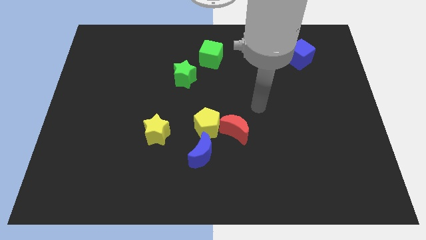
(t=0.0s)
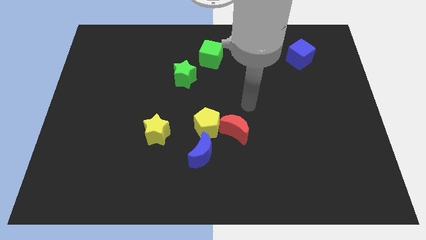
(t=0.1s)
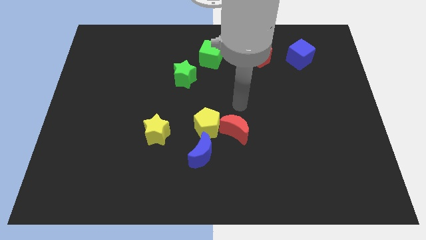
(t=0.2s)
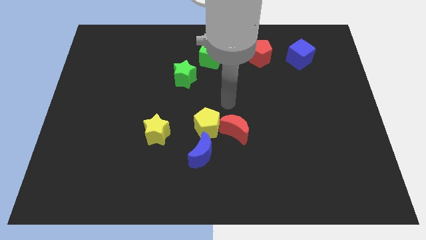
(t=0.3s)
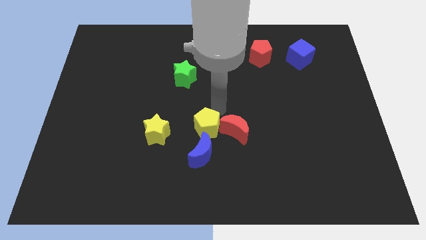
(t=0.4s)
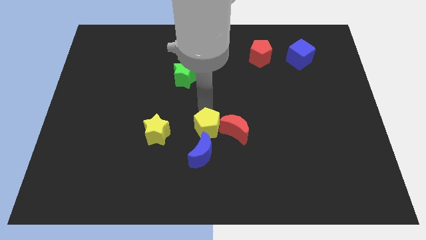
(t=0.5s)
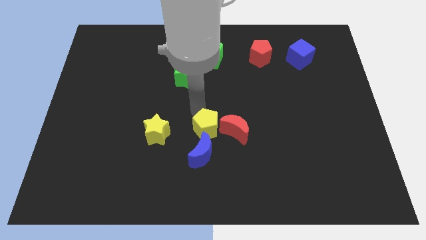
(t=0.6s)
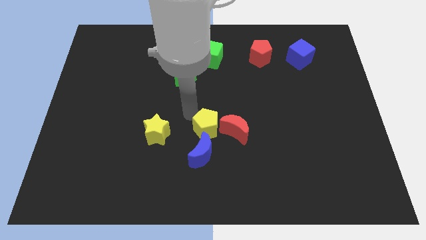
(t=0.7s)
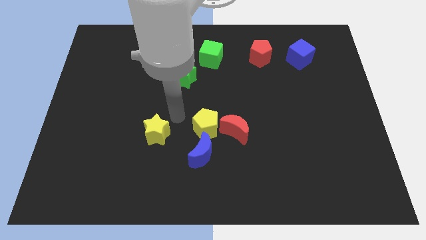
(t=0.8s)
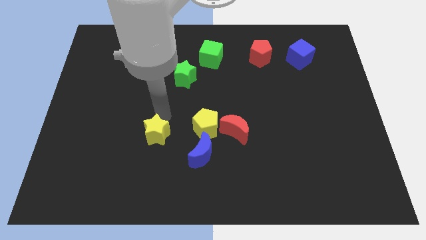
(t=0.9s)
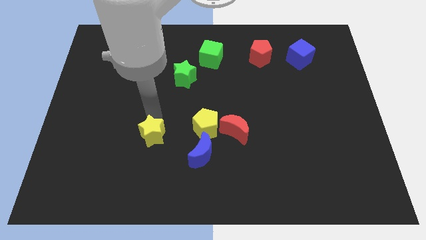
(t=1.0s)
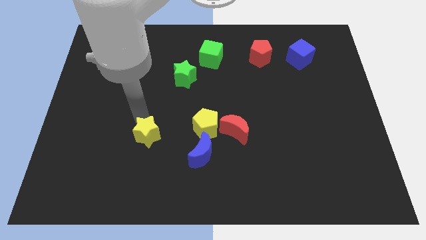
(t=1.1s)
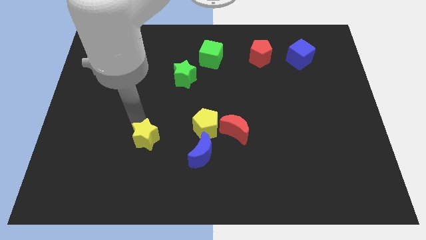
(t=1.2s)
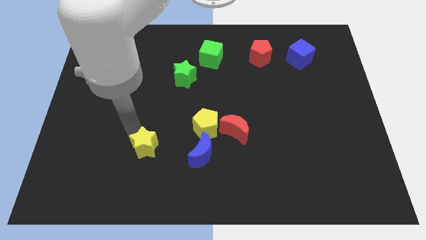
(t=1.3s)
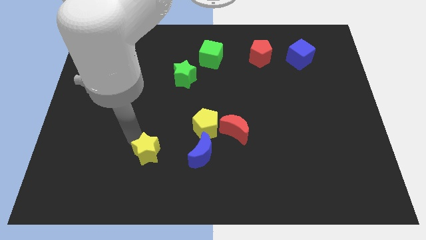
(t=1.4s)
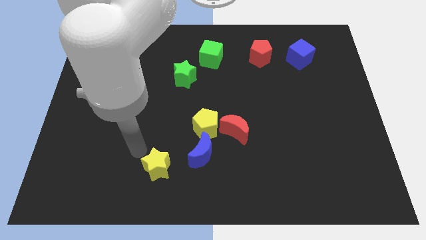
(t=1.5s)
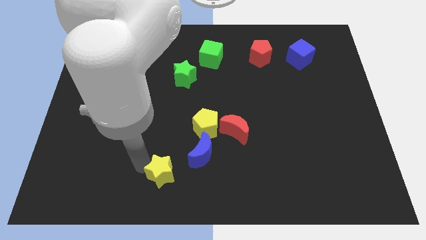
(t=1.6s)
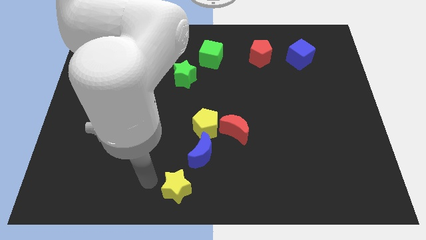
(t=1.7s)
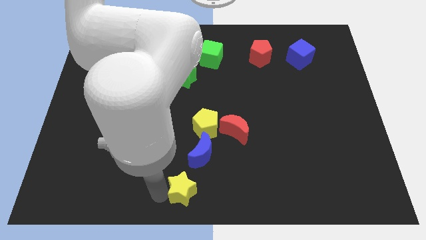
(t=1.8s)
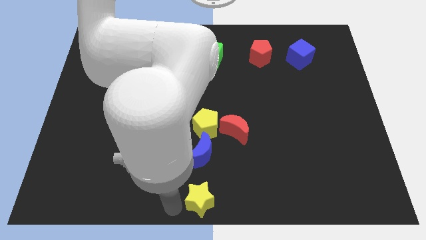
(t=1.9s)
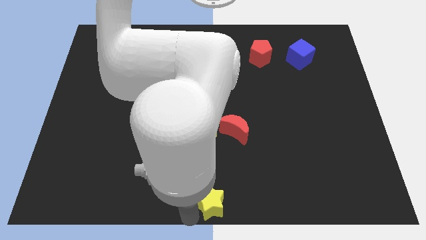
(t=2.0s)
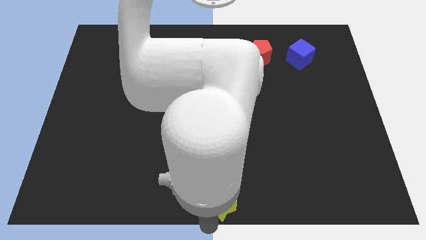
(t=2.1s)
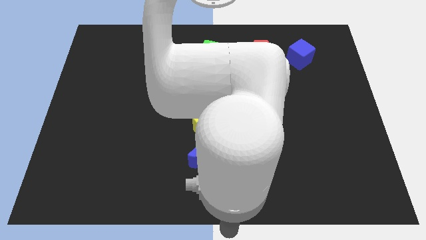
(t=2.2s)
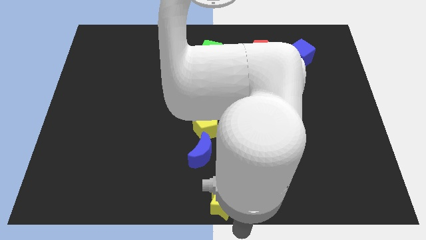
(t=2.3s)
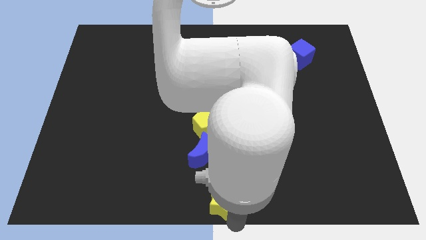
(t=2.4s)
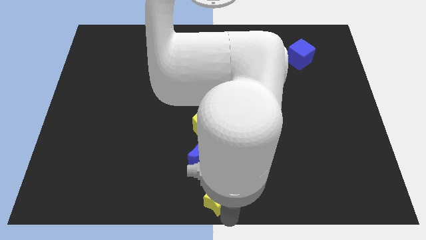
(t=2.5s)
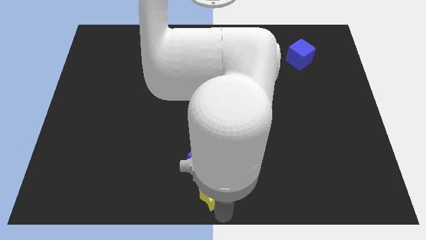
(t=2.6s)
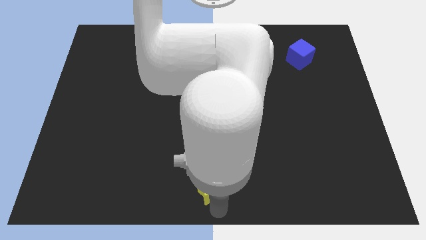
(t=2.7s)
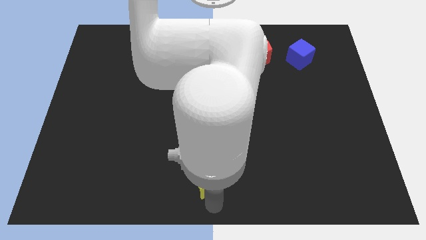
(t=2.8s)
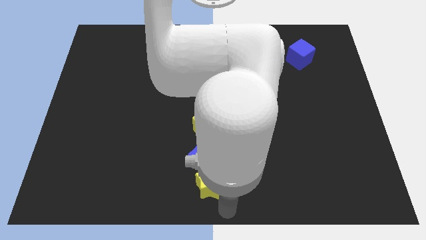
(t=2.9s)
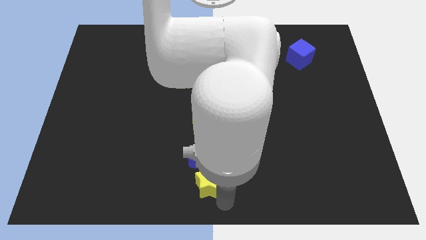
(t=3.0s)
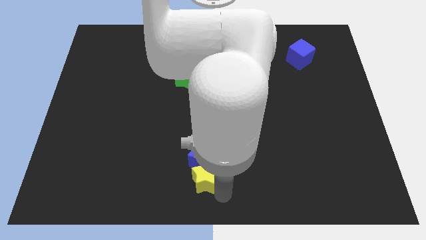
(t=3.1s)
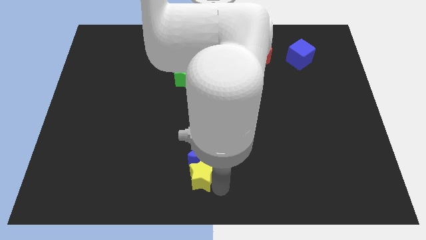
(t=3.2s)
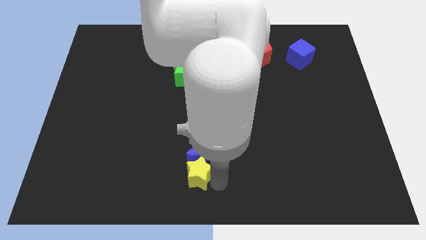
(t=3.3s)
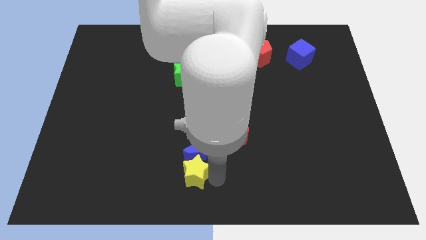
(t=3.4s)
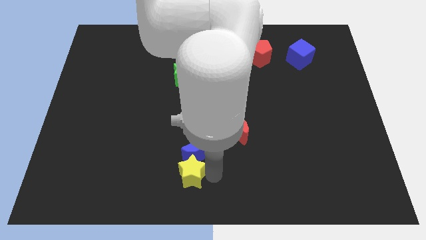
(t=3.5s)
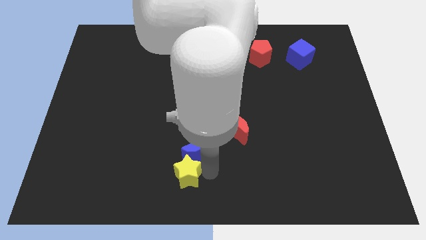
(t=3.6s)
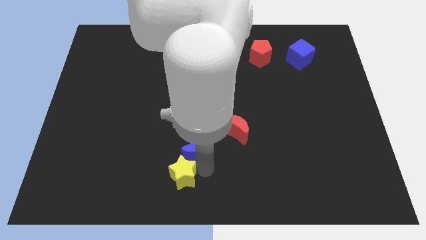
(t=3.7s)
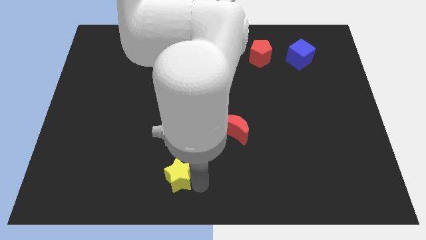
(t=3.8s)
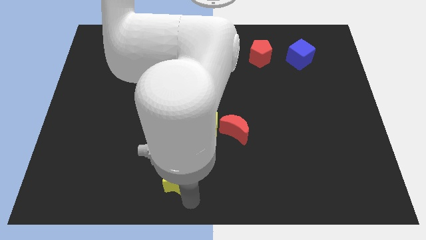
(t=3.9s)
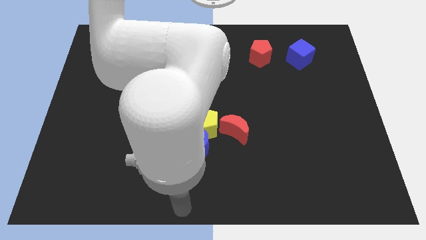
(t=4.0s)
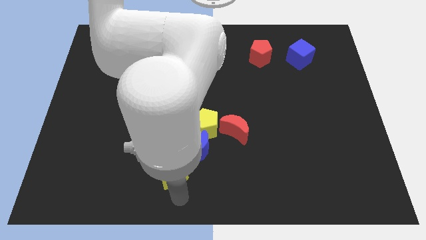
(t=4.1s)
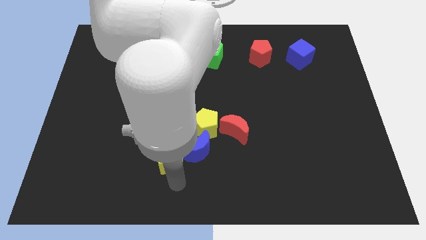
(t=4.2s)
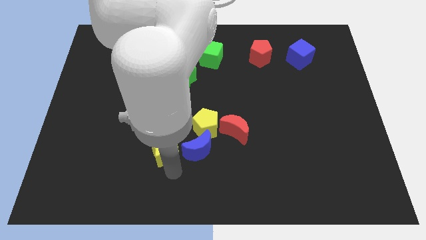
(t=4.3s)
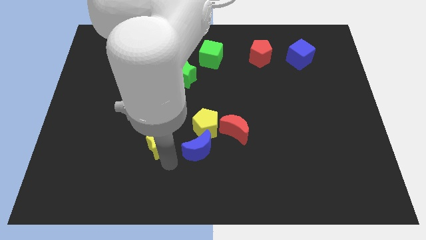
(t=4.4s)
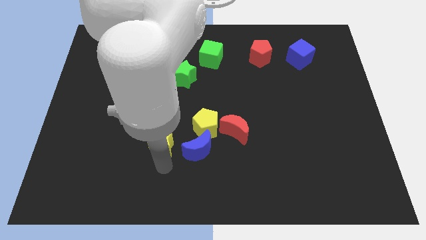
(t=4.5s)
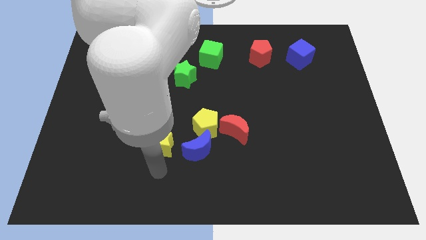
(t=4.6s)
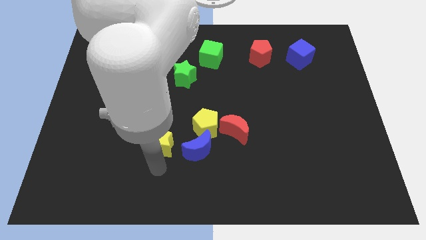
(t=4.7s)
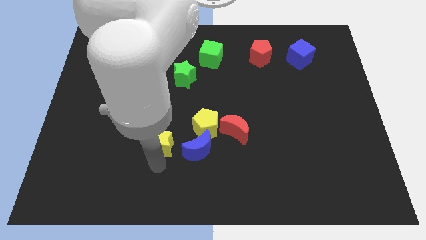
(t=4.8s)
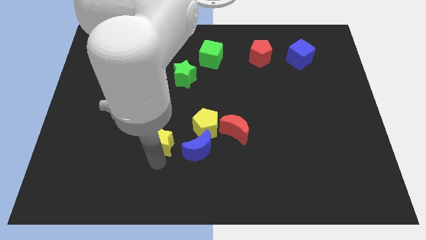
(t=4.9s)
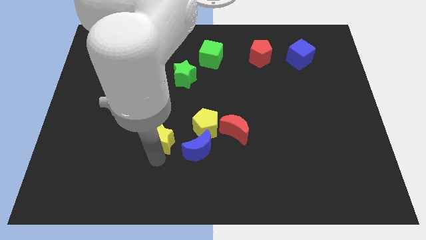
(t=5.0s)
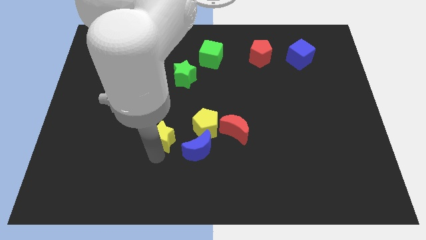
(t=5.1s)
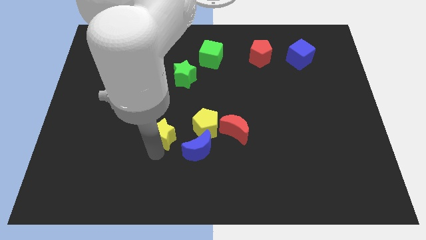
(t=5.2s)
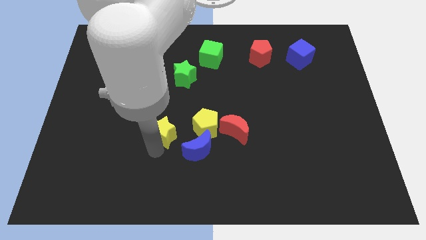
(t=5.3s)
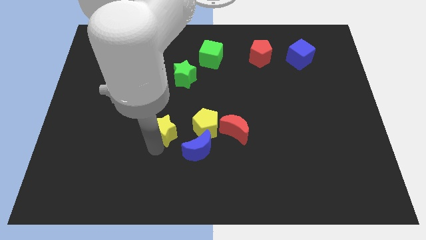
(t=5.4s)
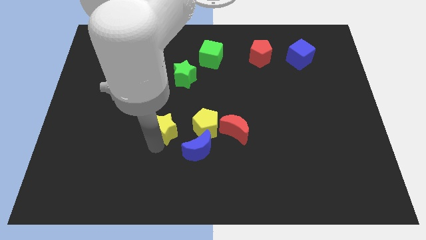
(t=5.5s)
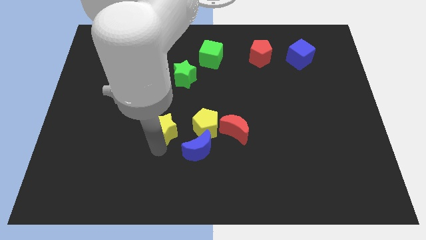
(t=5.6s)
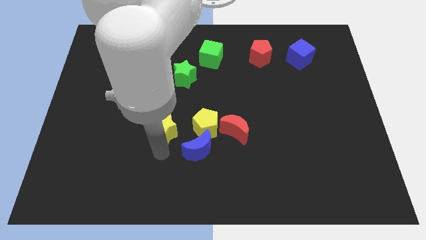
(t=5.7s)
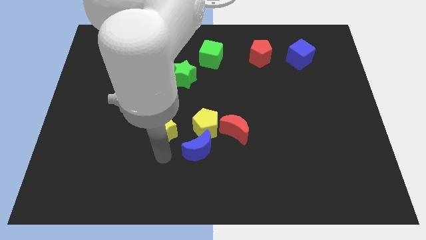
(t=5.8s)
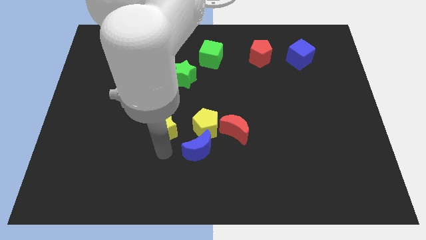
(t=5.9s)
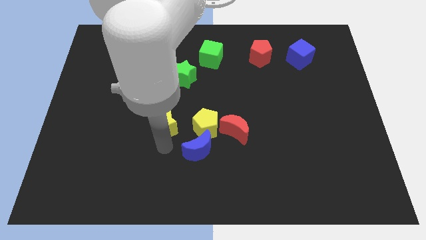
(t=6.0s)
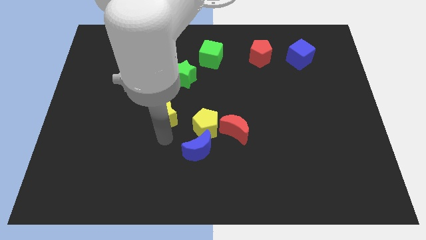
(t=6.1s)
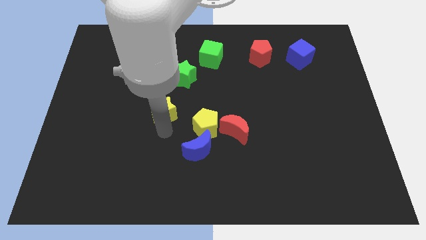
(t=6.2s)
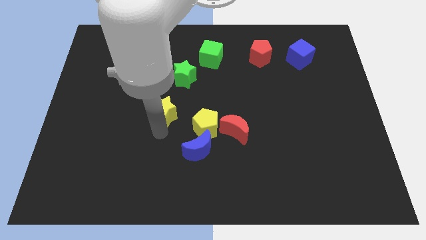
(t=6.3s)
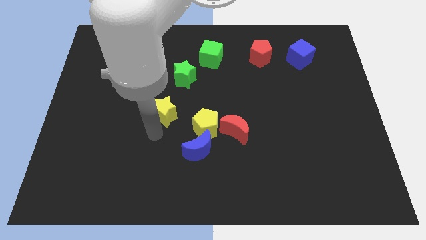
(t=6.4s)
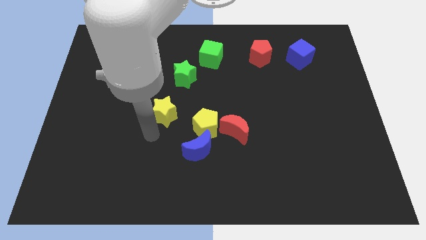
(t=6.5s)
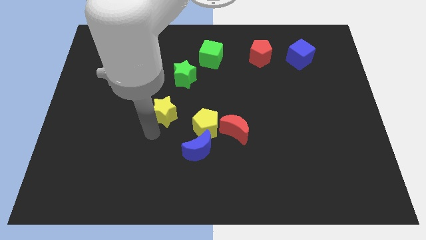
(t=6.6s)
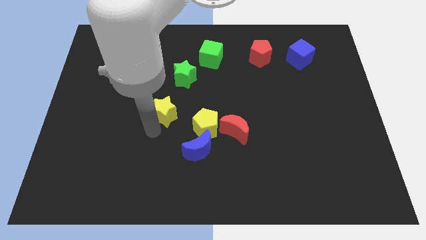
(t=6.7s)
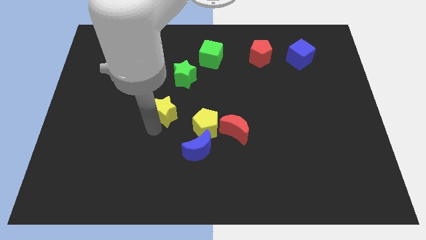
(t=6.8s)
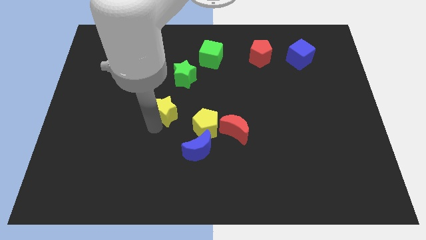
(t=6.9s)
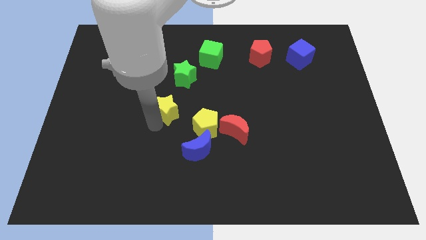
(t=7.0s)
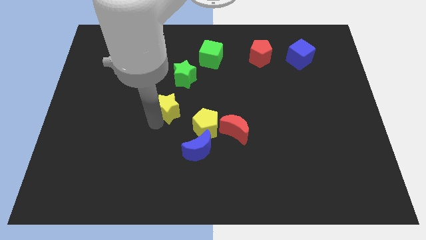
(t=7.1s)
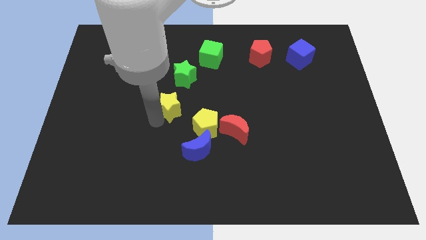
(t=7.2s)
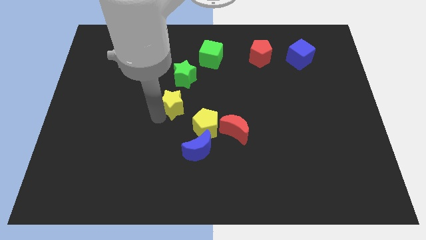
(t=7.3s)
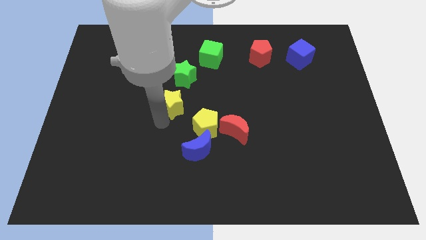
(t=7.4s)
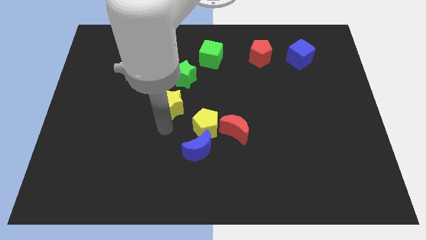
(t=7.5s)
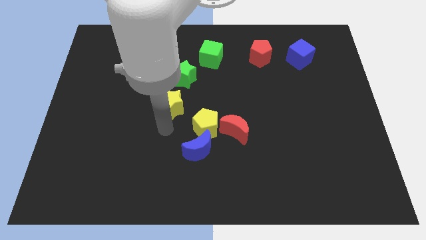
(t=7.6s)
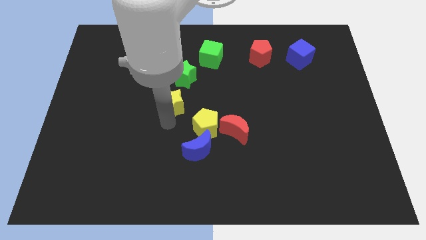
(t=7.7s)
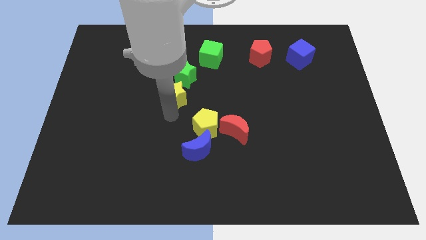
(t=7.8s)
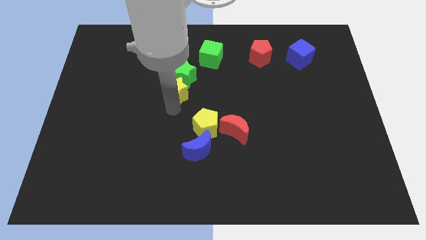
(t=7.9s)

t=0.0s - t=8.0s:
move the yellow star to the green star
